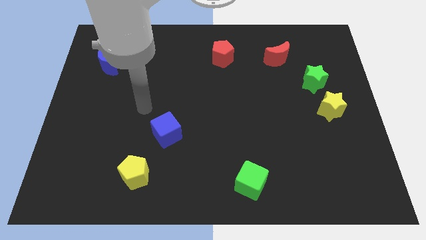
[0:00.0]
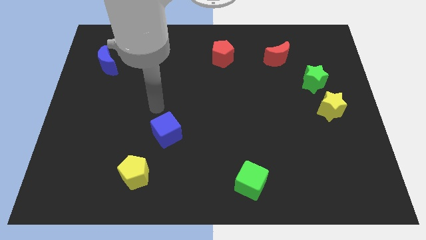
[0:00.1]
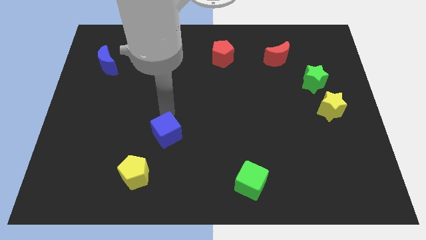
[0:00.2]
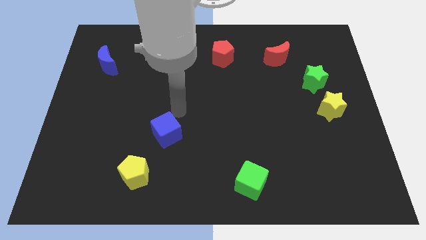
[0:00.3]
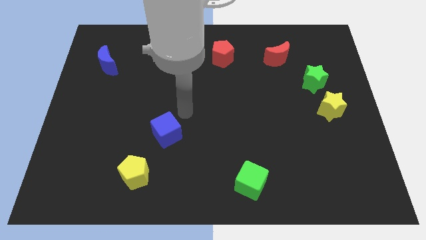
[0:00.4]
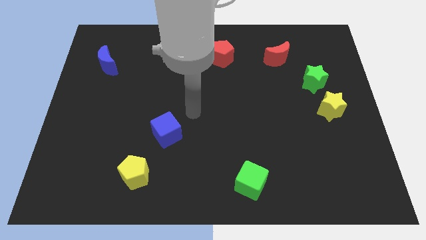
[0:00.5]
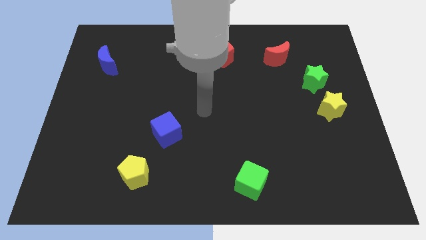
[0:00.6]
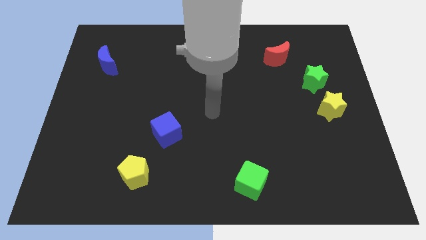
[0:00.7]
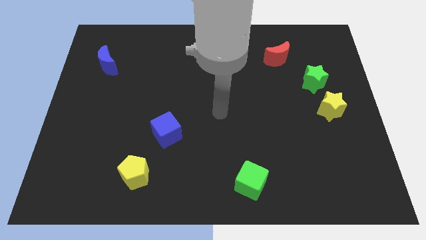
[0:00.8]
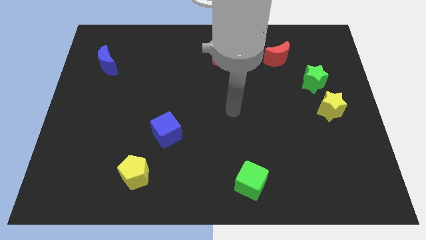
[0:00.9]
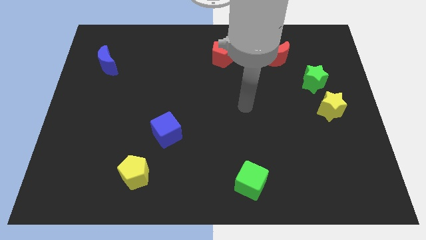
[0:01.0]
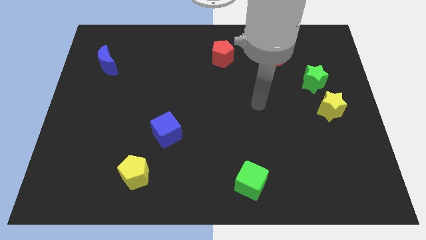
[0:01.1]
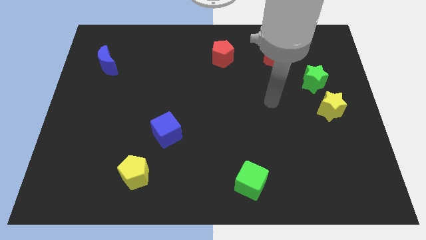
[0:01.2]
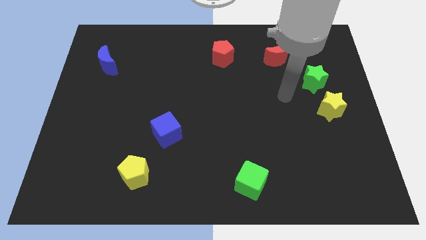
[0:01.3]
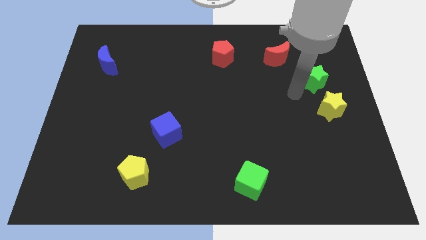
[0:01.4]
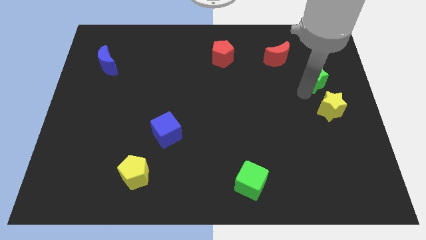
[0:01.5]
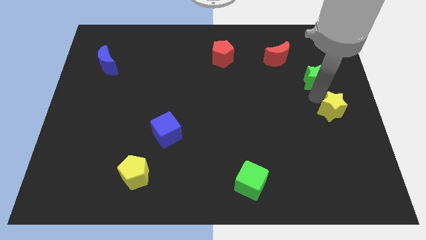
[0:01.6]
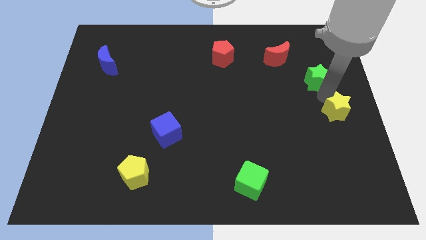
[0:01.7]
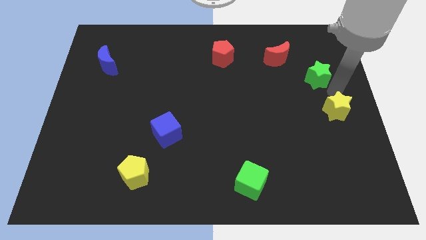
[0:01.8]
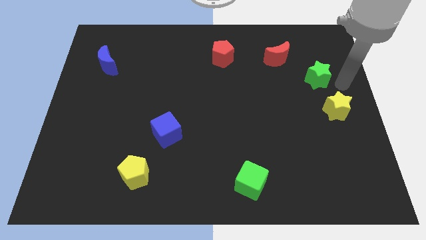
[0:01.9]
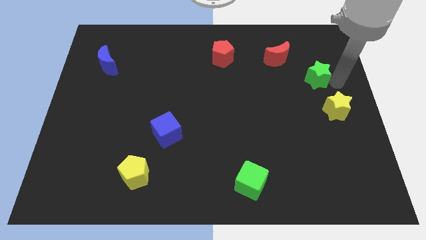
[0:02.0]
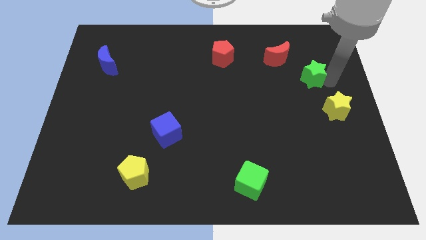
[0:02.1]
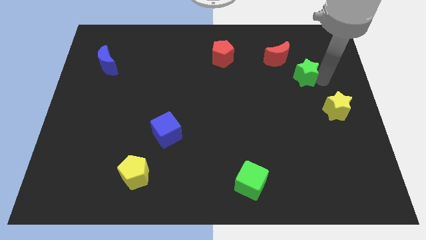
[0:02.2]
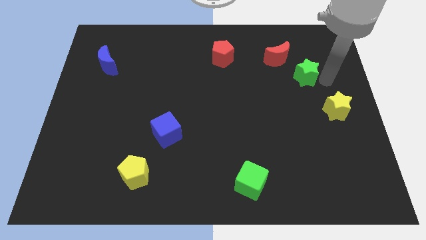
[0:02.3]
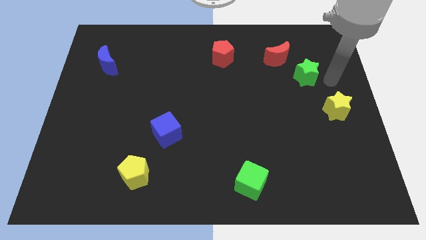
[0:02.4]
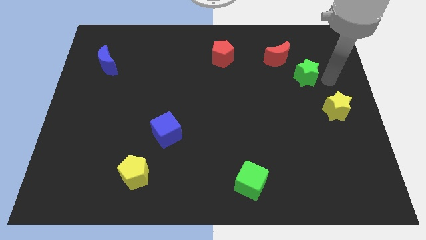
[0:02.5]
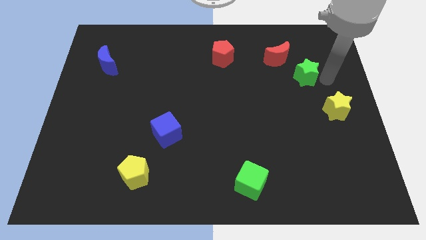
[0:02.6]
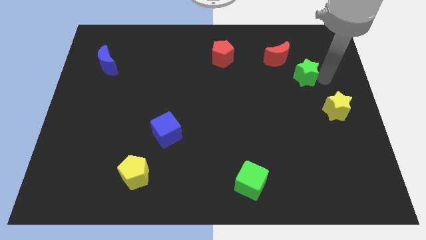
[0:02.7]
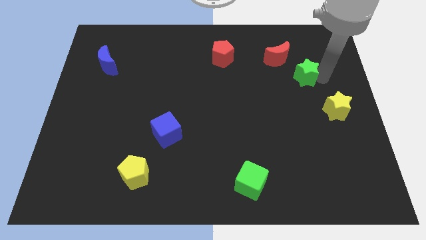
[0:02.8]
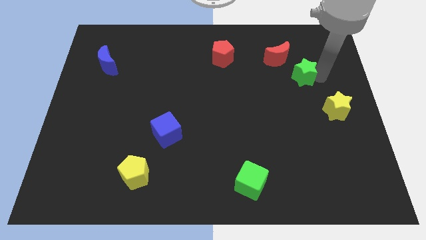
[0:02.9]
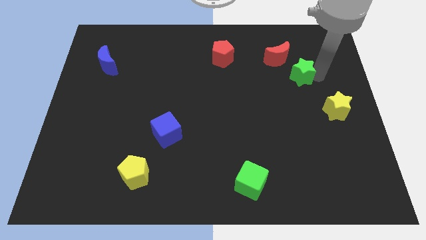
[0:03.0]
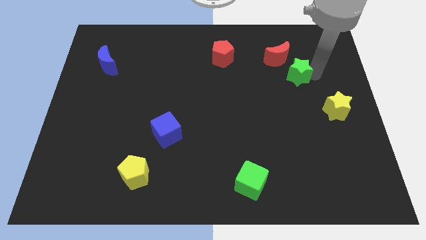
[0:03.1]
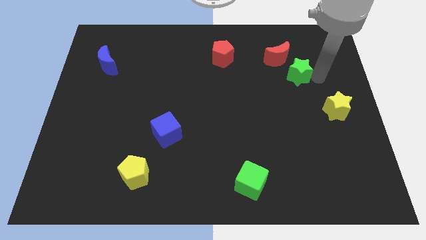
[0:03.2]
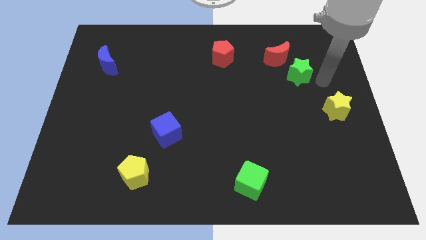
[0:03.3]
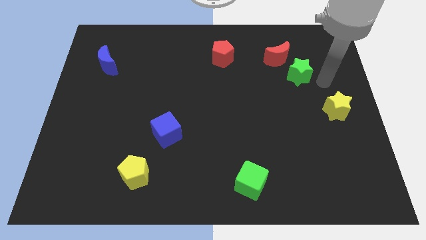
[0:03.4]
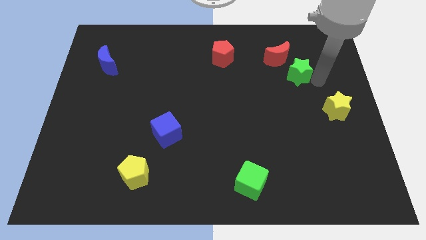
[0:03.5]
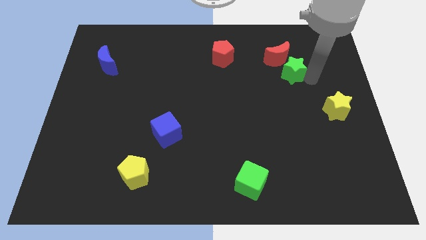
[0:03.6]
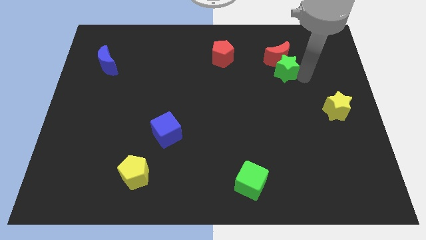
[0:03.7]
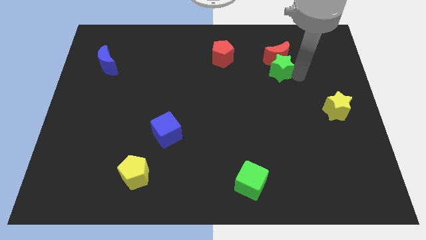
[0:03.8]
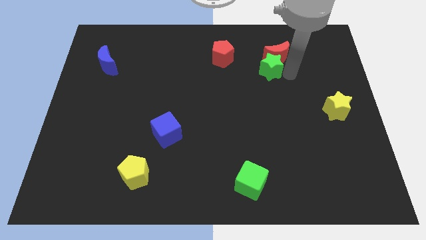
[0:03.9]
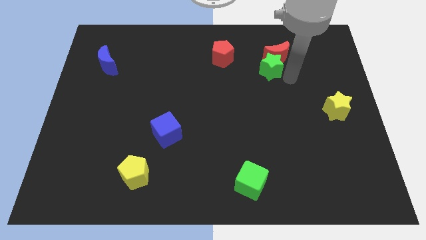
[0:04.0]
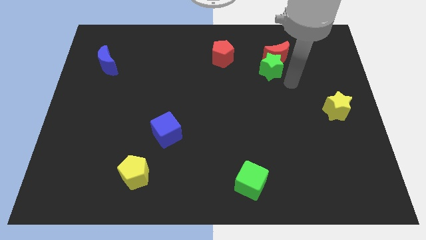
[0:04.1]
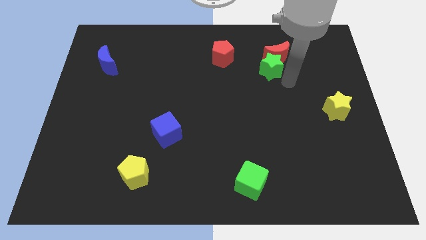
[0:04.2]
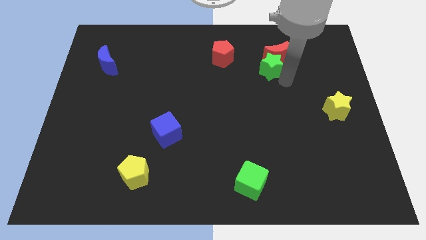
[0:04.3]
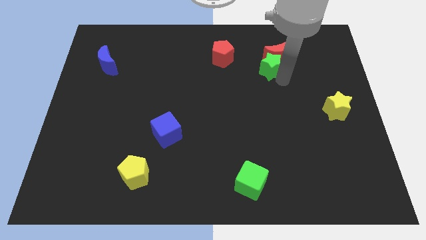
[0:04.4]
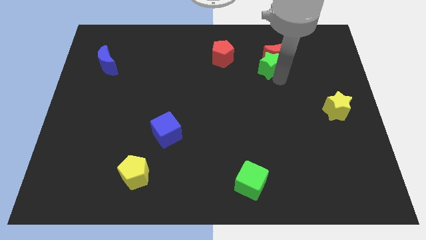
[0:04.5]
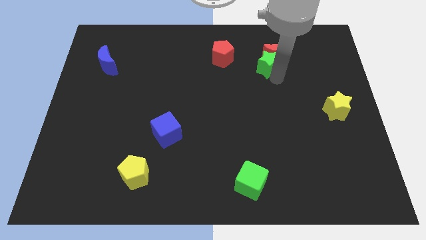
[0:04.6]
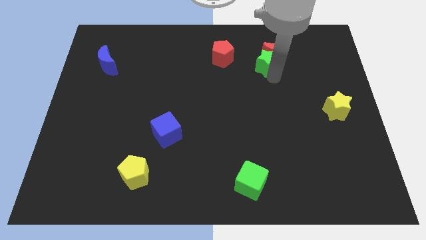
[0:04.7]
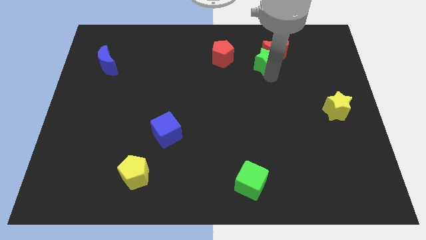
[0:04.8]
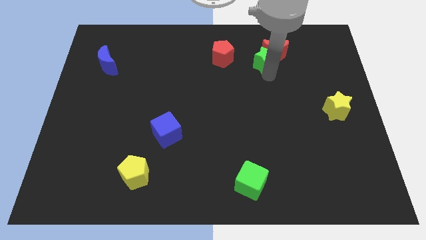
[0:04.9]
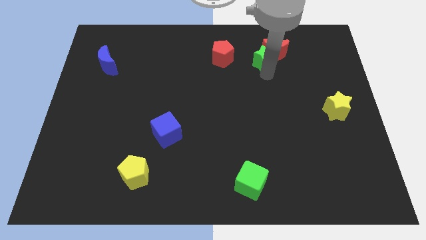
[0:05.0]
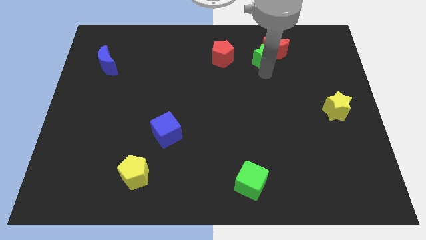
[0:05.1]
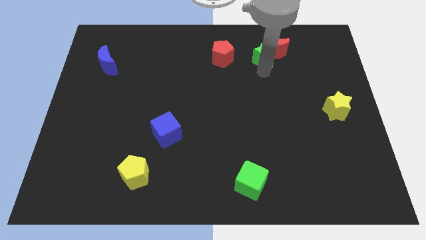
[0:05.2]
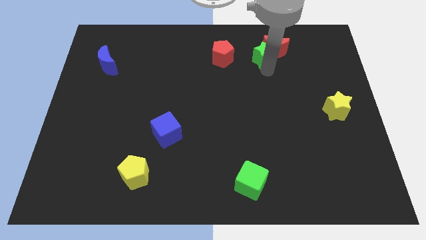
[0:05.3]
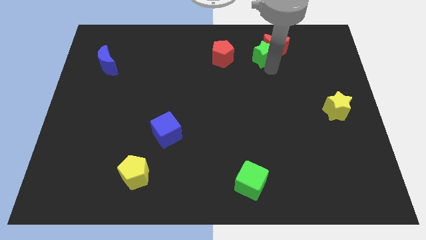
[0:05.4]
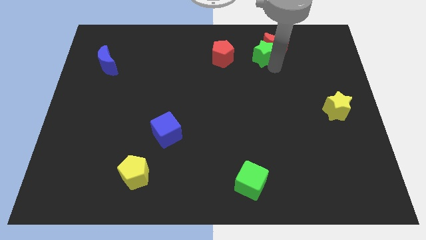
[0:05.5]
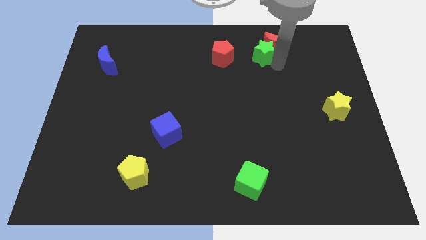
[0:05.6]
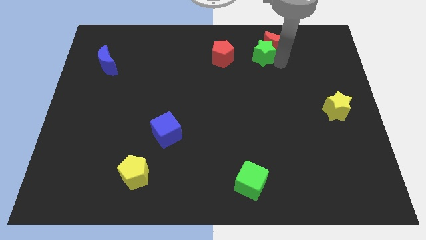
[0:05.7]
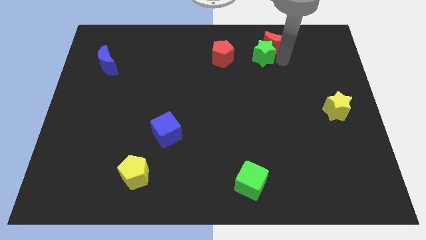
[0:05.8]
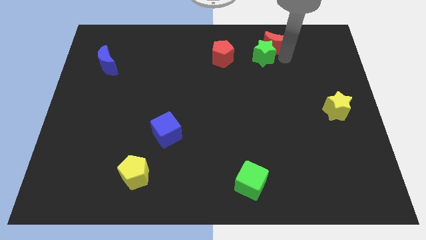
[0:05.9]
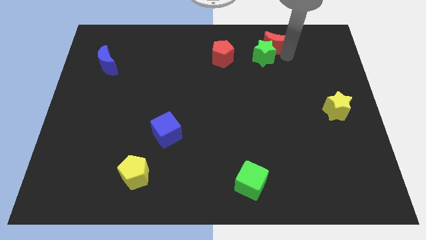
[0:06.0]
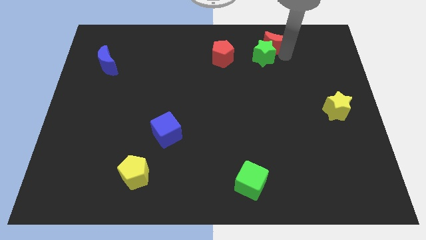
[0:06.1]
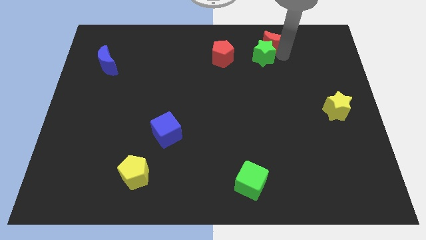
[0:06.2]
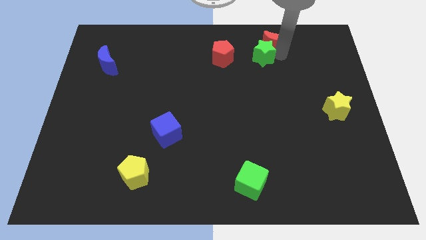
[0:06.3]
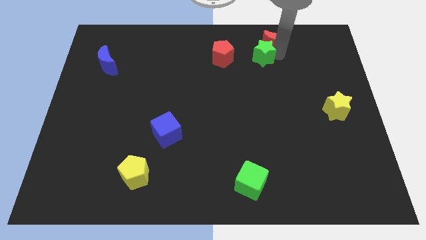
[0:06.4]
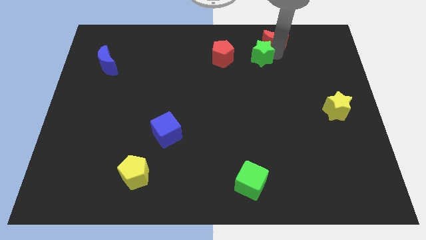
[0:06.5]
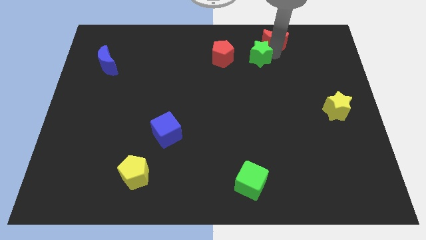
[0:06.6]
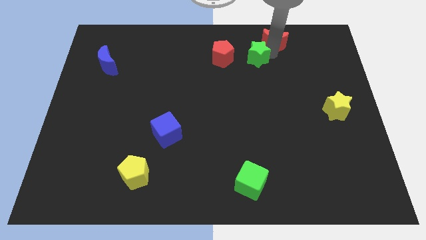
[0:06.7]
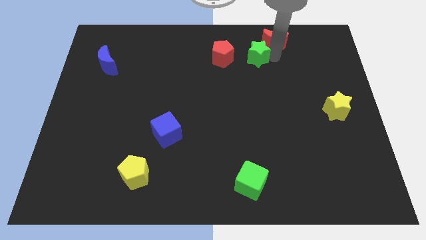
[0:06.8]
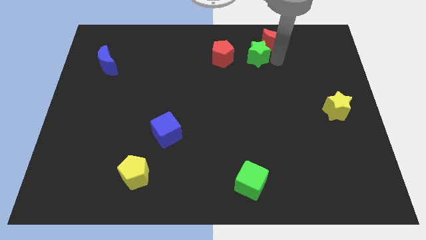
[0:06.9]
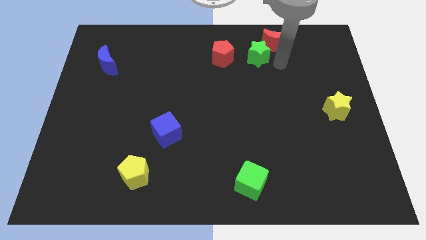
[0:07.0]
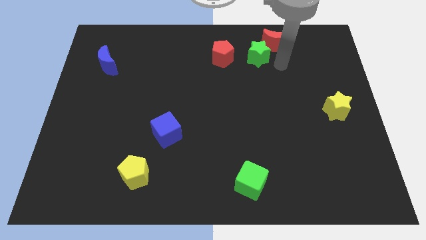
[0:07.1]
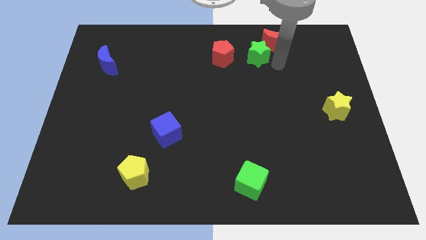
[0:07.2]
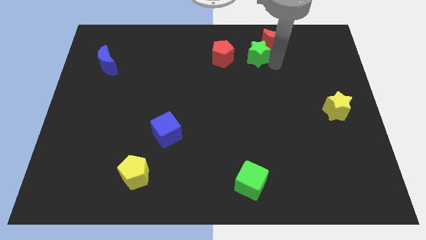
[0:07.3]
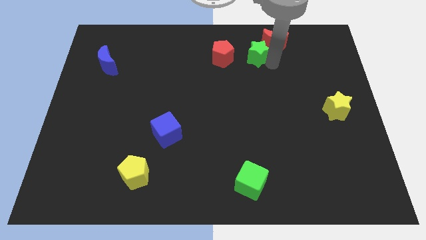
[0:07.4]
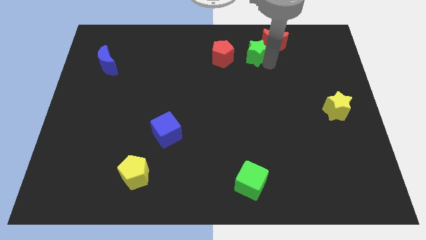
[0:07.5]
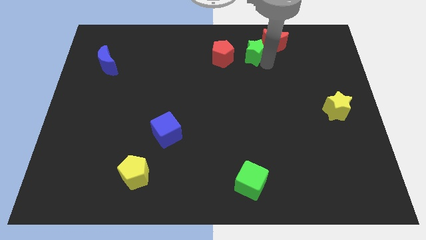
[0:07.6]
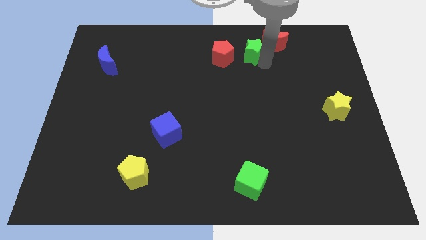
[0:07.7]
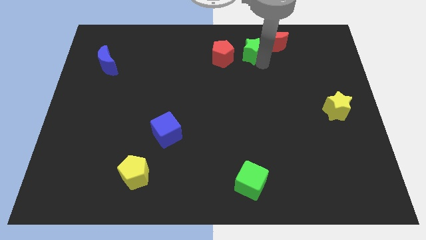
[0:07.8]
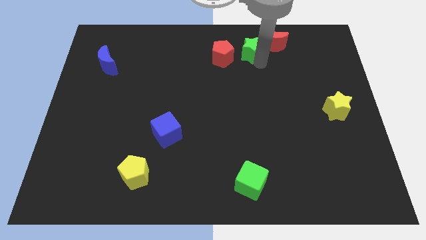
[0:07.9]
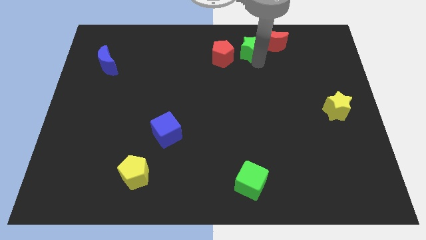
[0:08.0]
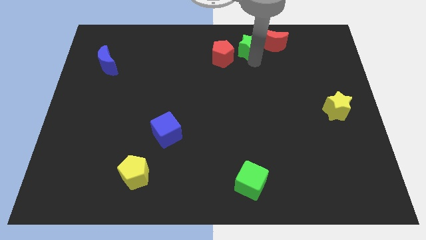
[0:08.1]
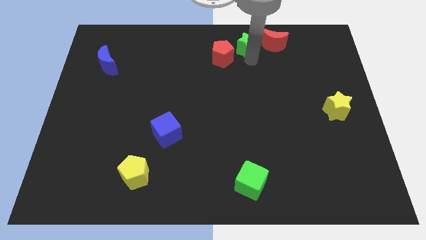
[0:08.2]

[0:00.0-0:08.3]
move the green star to the top
